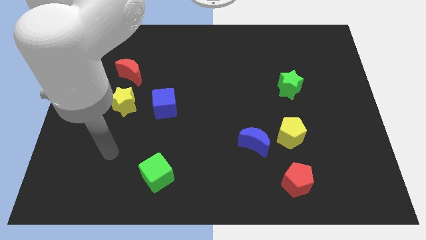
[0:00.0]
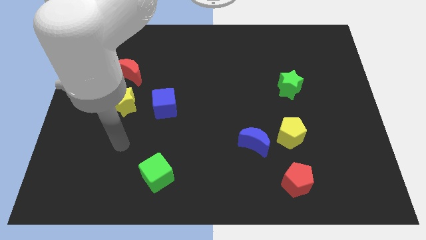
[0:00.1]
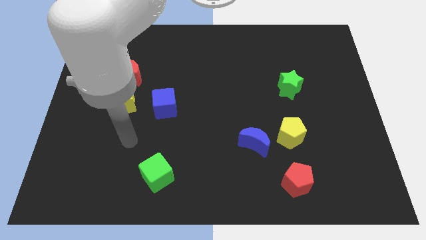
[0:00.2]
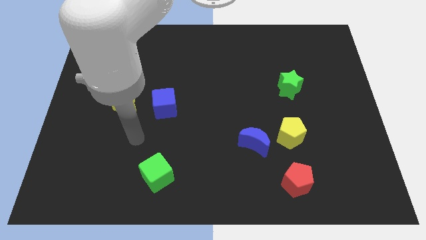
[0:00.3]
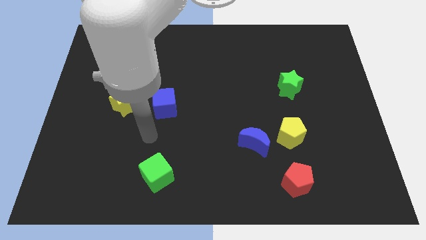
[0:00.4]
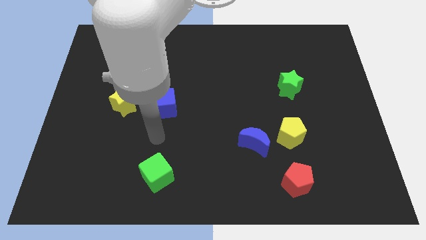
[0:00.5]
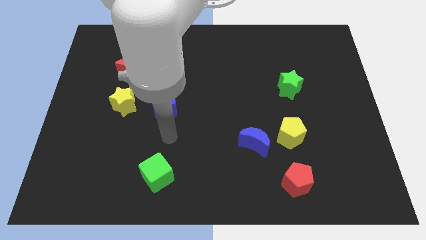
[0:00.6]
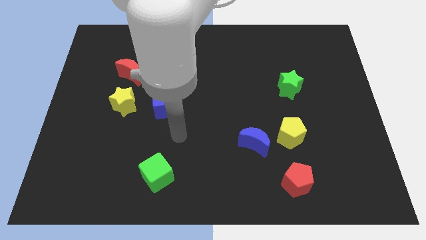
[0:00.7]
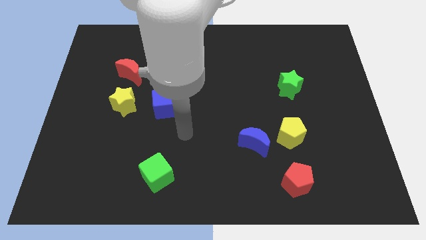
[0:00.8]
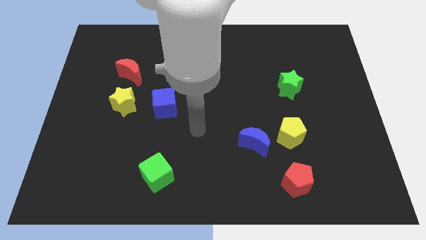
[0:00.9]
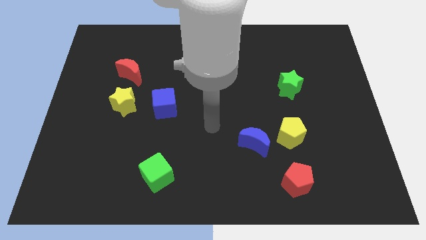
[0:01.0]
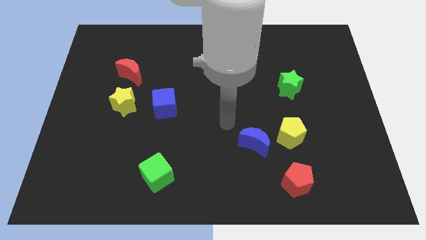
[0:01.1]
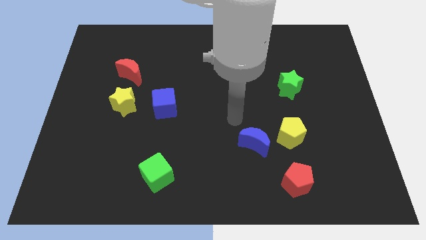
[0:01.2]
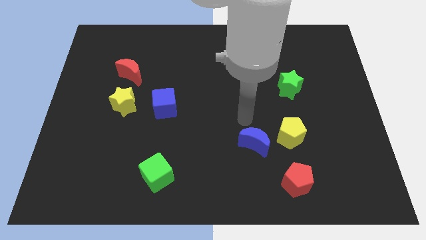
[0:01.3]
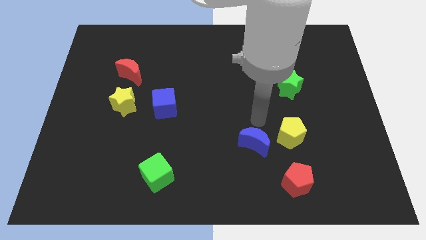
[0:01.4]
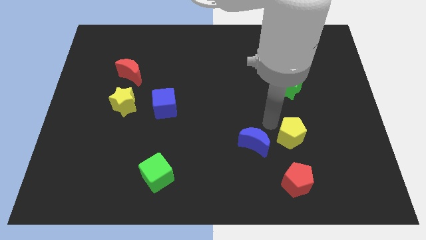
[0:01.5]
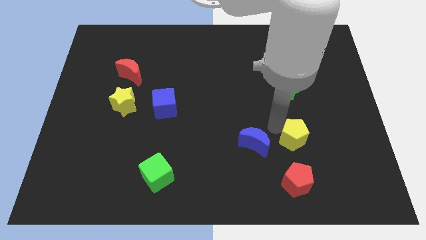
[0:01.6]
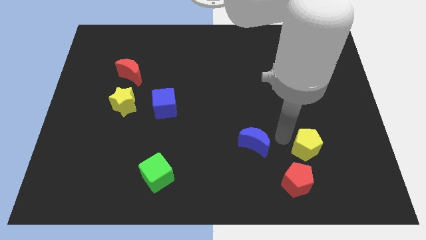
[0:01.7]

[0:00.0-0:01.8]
pull the blue moon apart from the yellow pentagon

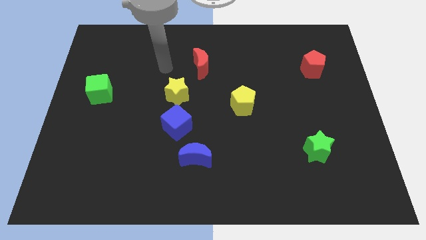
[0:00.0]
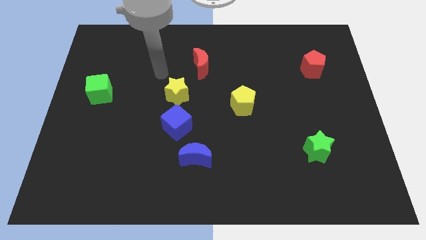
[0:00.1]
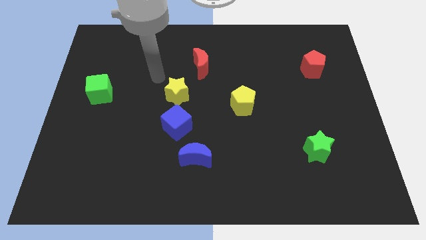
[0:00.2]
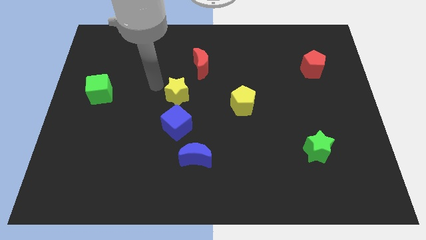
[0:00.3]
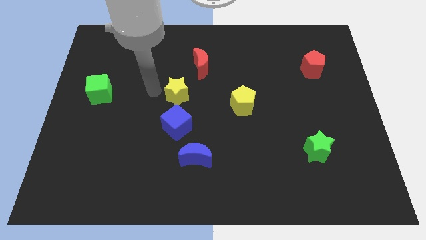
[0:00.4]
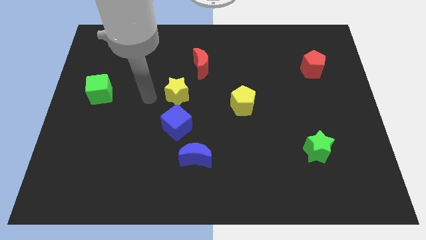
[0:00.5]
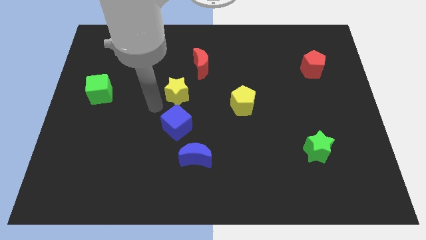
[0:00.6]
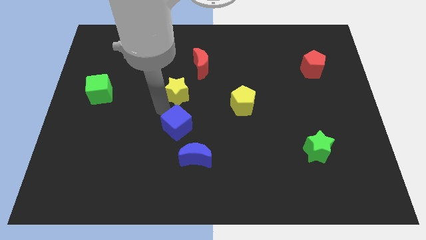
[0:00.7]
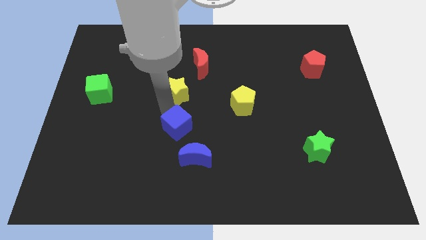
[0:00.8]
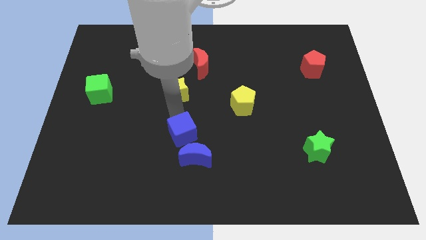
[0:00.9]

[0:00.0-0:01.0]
separate the yellow star from the blue cube

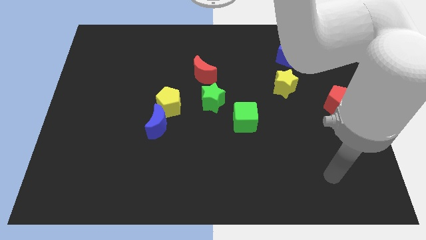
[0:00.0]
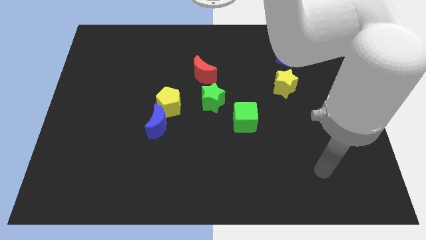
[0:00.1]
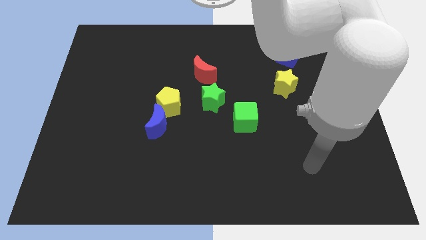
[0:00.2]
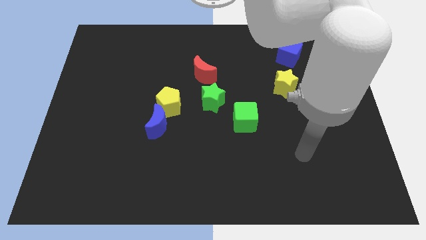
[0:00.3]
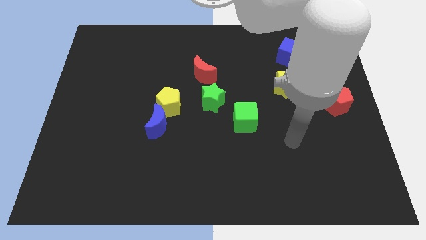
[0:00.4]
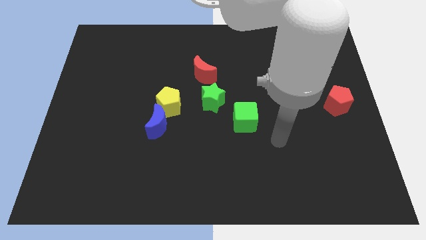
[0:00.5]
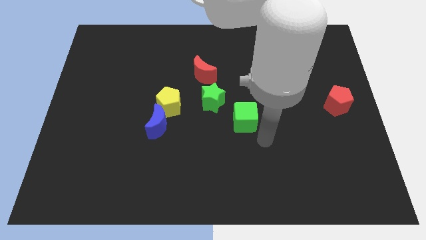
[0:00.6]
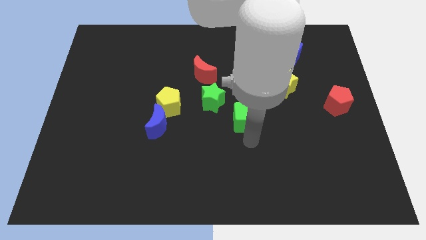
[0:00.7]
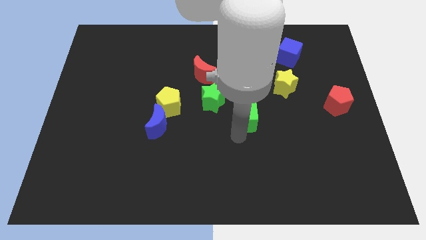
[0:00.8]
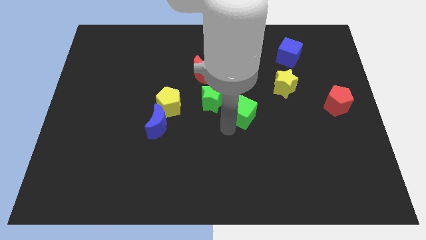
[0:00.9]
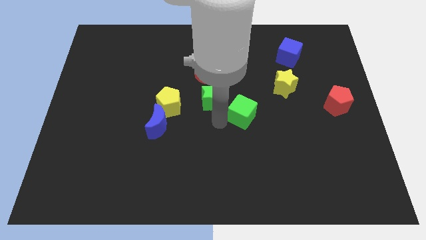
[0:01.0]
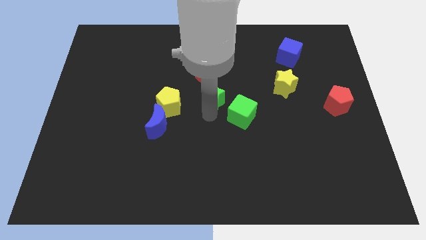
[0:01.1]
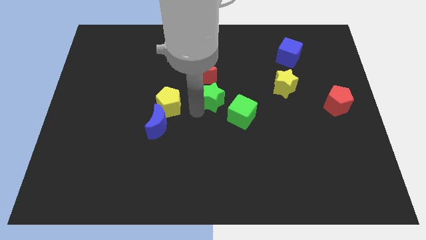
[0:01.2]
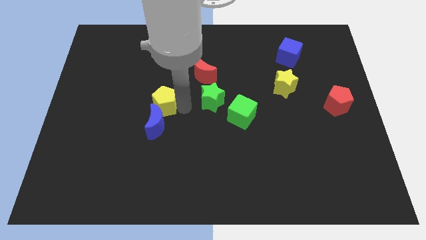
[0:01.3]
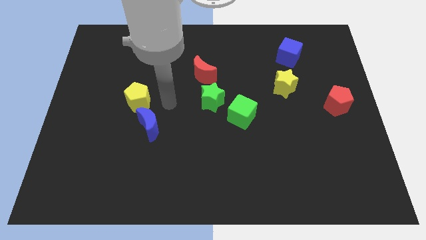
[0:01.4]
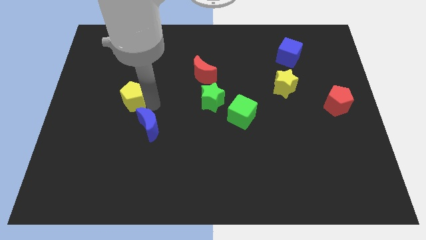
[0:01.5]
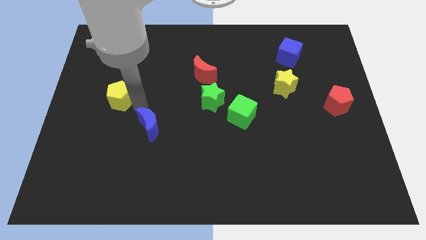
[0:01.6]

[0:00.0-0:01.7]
separate the blue moon from the yellow pentagon

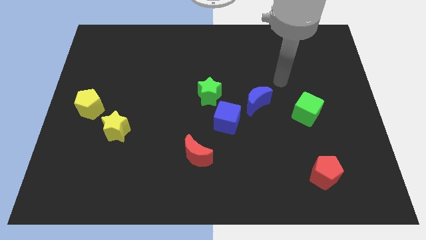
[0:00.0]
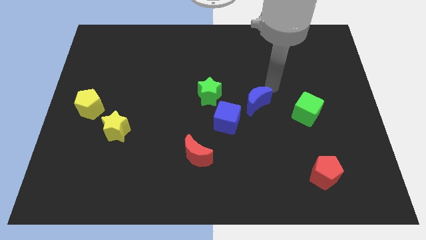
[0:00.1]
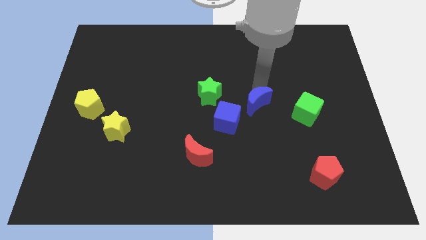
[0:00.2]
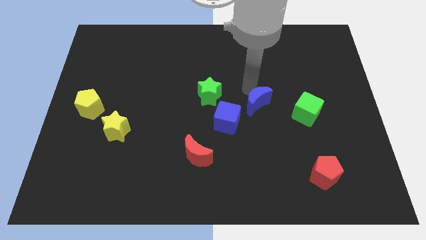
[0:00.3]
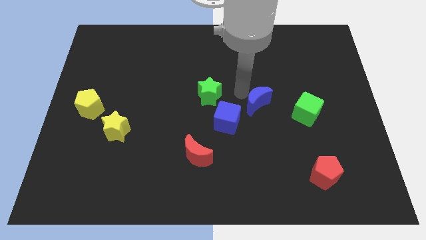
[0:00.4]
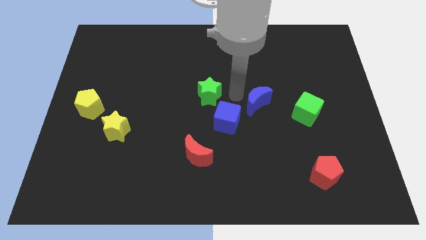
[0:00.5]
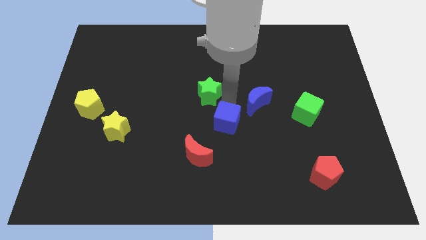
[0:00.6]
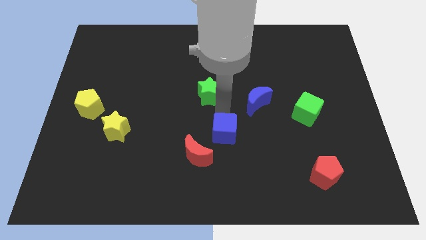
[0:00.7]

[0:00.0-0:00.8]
move the green star away from the blue cube

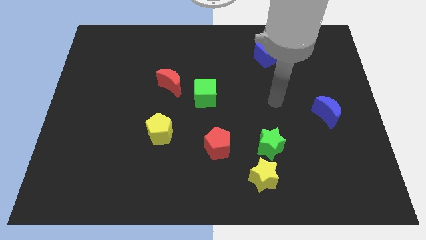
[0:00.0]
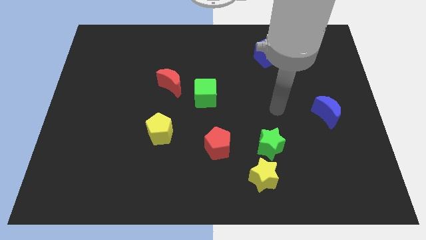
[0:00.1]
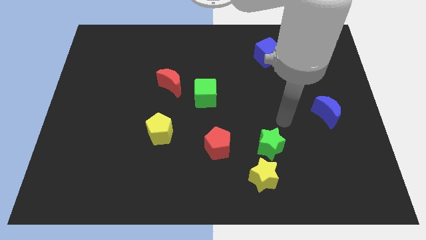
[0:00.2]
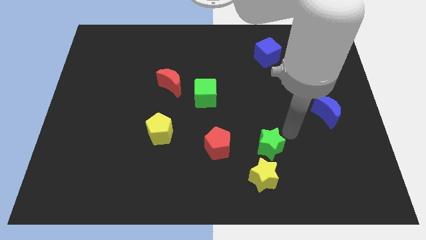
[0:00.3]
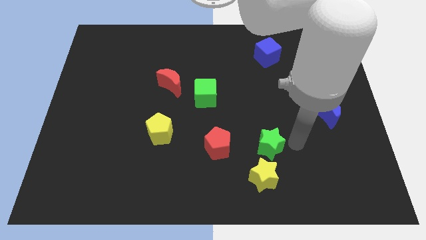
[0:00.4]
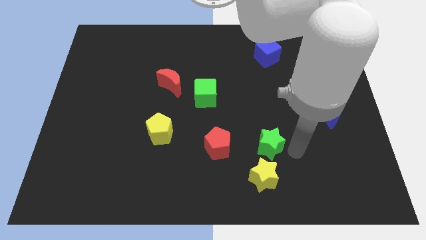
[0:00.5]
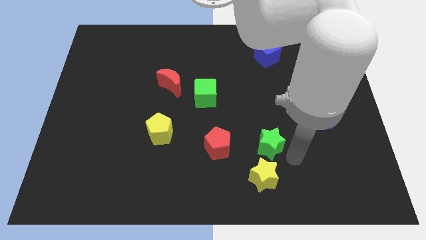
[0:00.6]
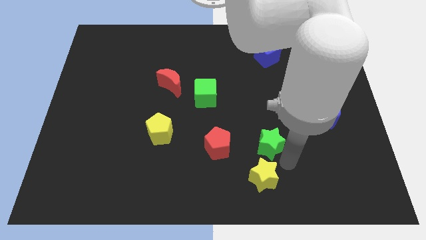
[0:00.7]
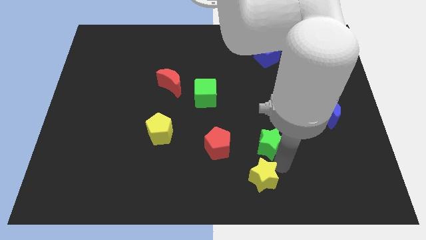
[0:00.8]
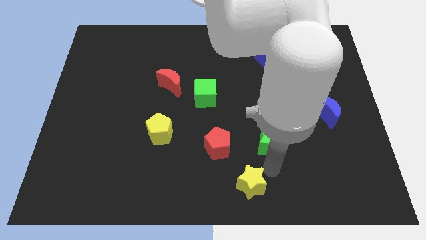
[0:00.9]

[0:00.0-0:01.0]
move the green star away from the yellow star

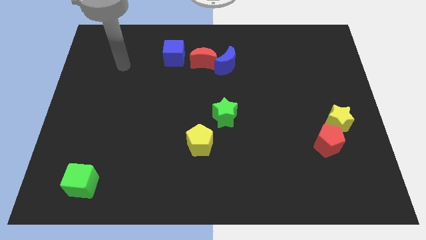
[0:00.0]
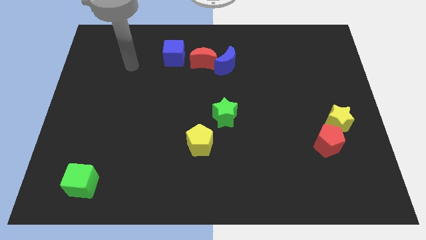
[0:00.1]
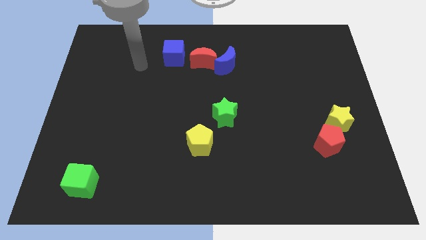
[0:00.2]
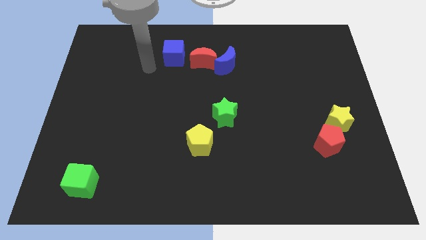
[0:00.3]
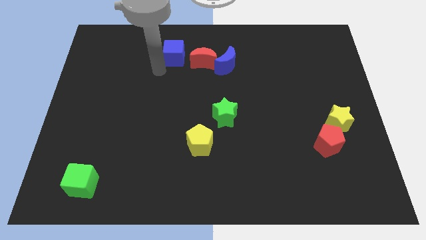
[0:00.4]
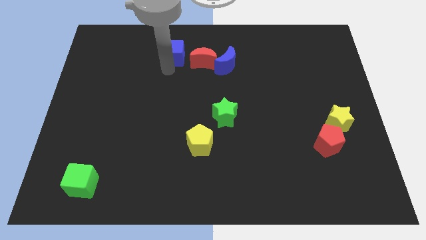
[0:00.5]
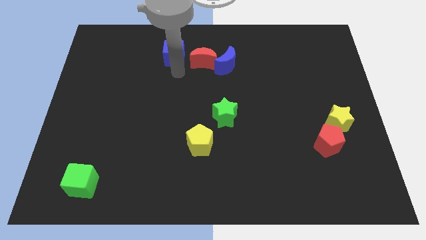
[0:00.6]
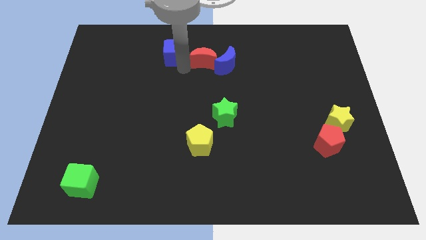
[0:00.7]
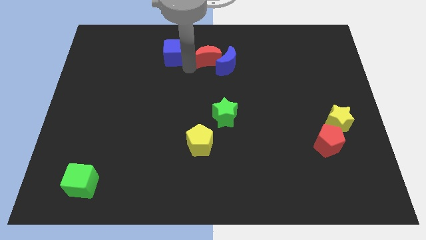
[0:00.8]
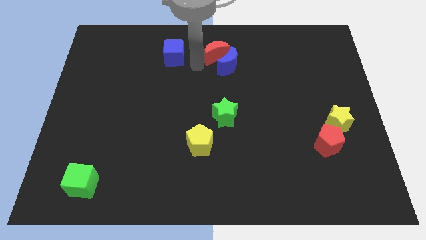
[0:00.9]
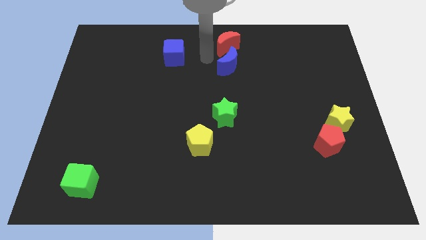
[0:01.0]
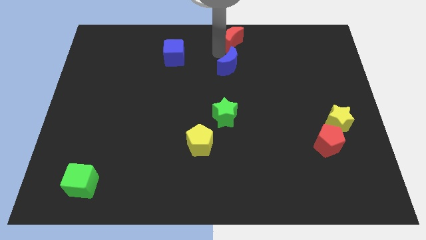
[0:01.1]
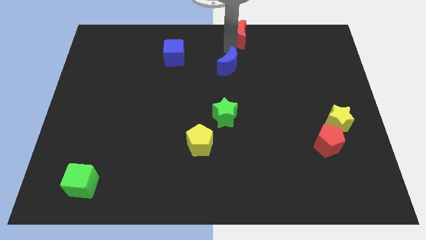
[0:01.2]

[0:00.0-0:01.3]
pull the blue moon apart from the red moon

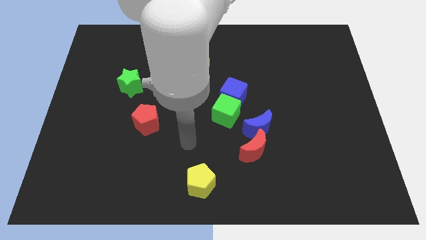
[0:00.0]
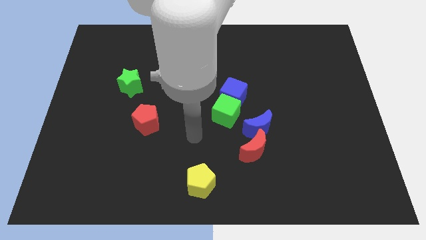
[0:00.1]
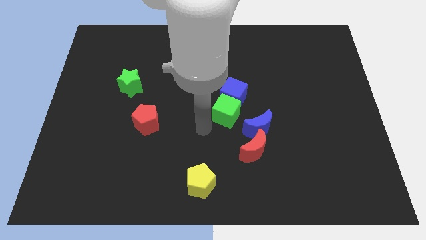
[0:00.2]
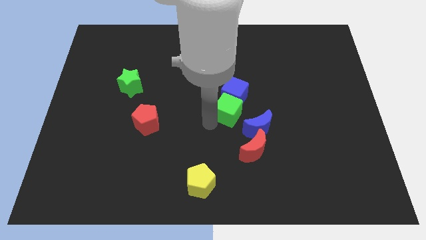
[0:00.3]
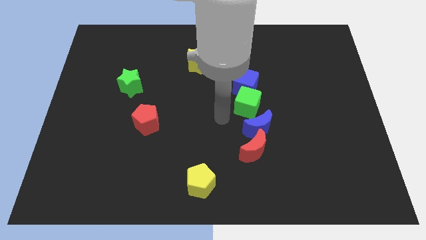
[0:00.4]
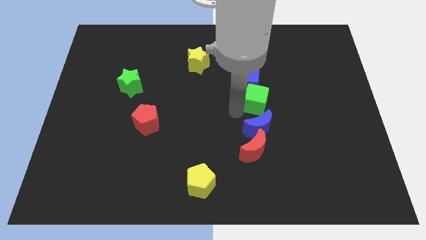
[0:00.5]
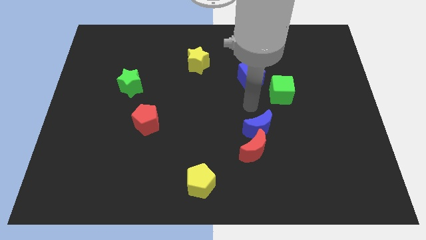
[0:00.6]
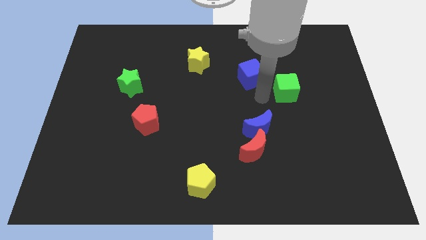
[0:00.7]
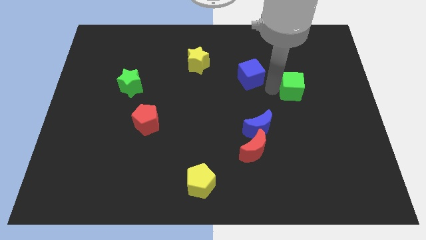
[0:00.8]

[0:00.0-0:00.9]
separate the blue cube from the green cube

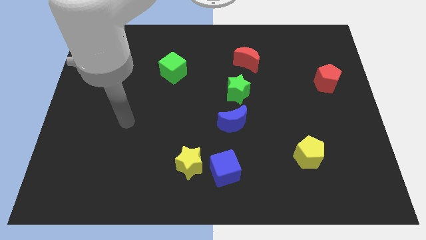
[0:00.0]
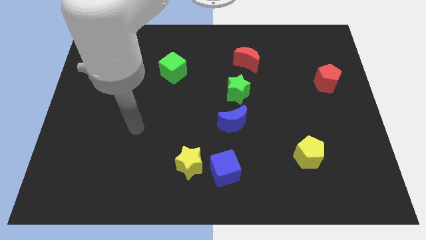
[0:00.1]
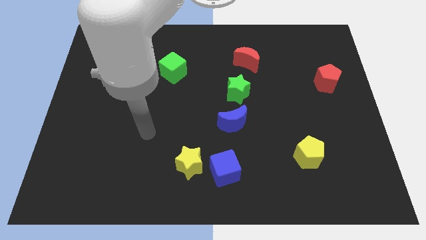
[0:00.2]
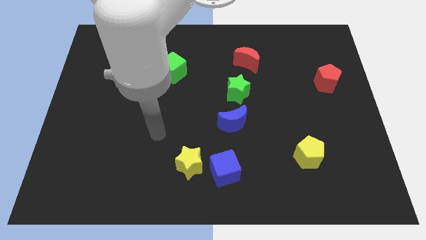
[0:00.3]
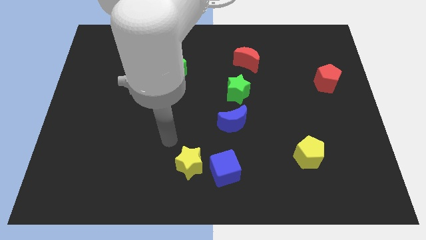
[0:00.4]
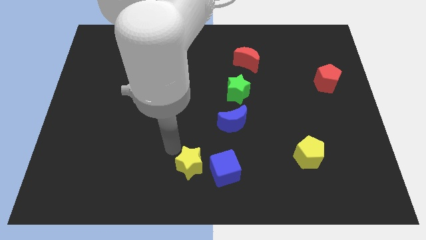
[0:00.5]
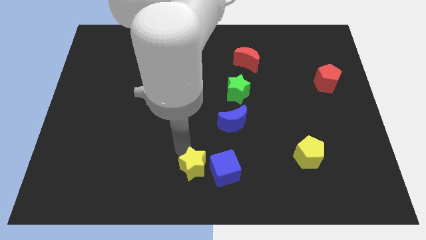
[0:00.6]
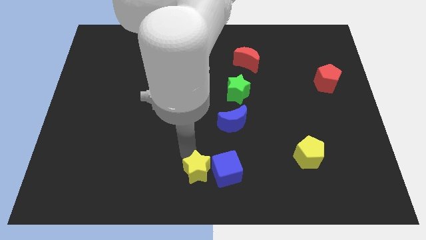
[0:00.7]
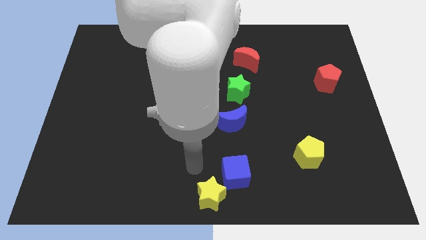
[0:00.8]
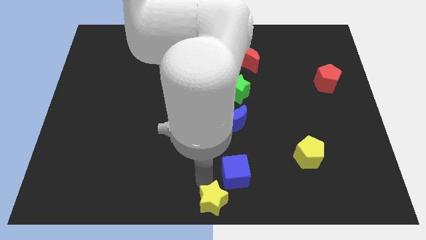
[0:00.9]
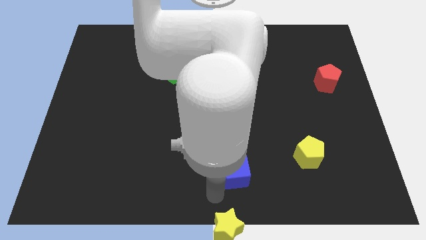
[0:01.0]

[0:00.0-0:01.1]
separate the blue cube from the yellow star
